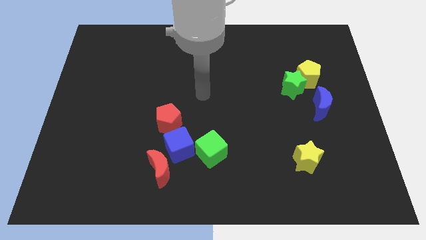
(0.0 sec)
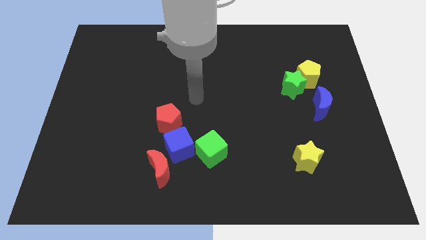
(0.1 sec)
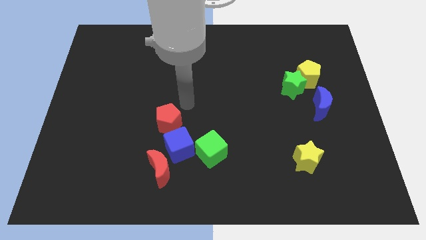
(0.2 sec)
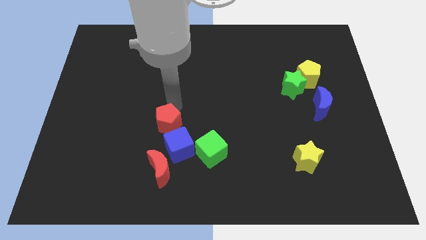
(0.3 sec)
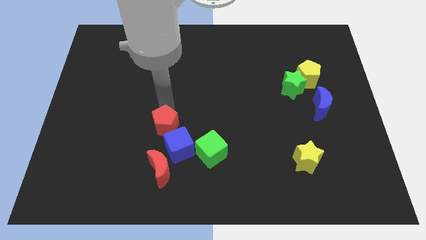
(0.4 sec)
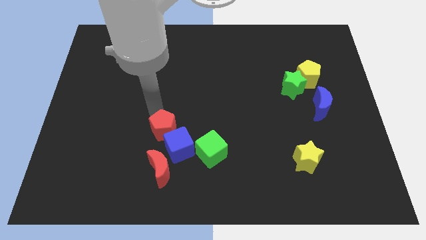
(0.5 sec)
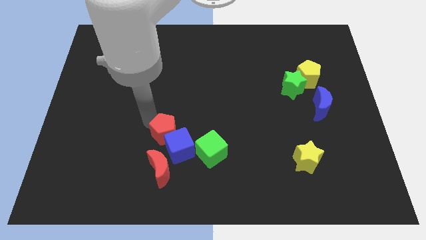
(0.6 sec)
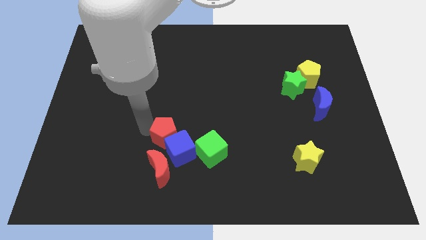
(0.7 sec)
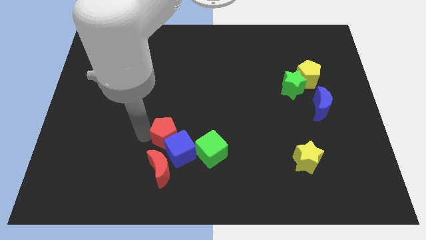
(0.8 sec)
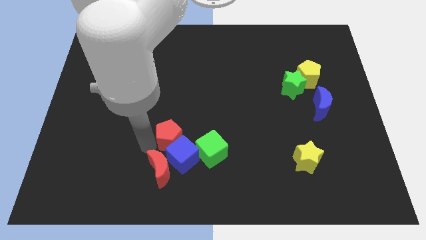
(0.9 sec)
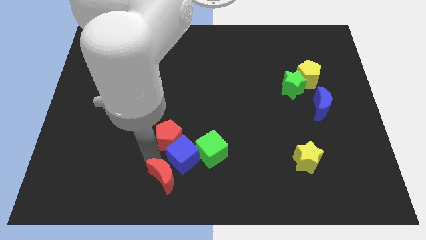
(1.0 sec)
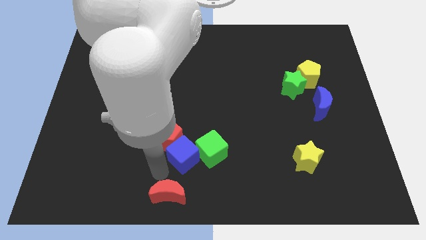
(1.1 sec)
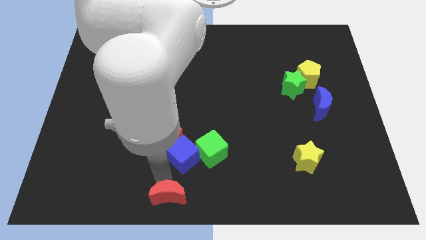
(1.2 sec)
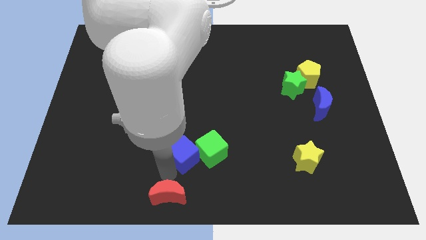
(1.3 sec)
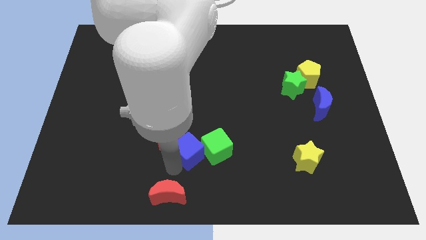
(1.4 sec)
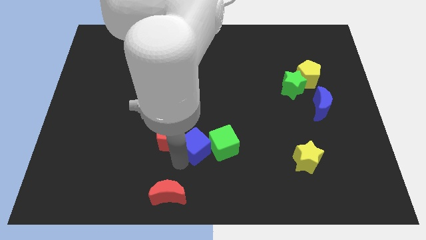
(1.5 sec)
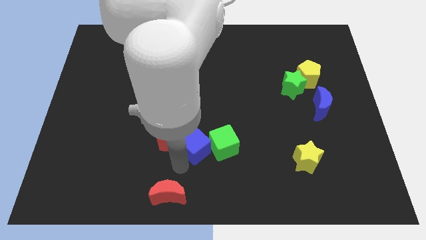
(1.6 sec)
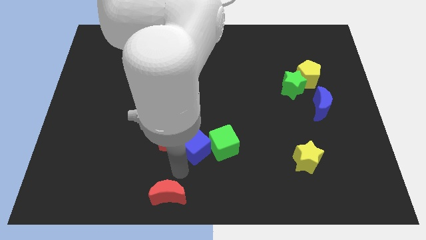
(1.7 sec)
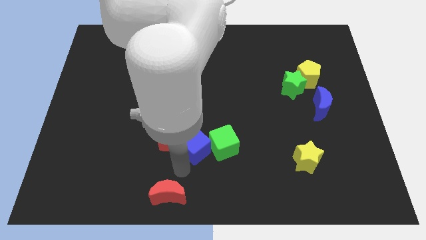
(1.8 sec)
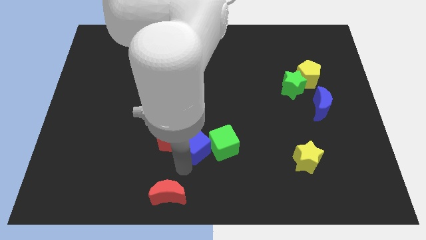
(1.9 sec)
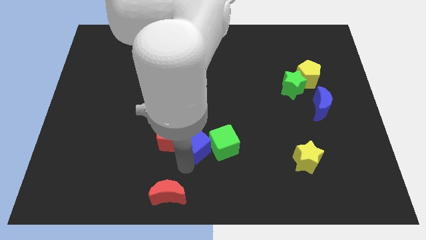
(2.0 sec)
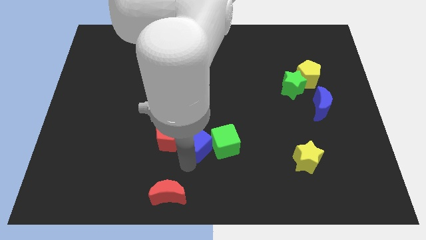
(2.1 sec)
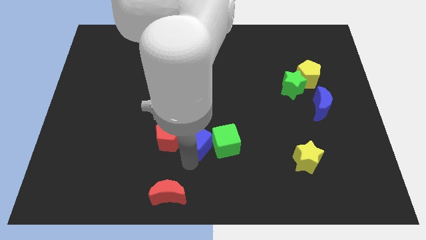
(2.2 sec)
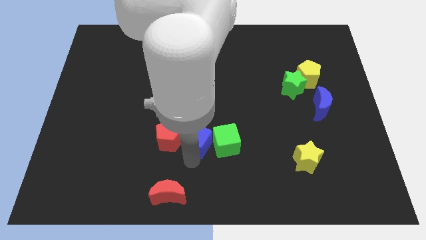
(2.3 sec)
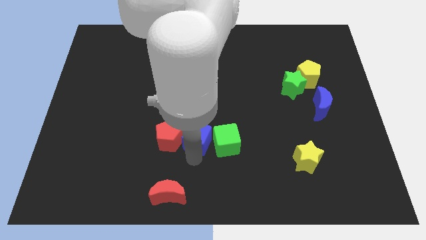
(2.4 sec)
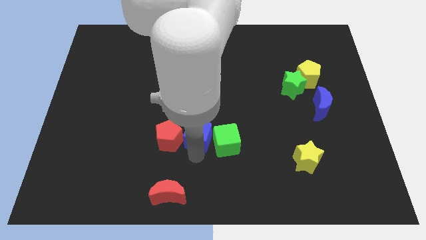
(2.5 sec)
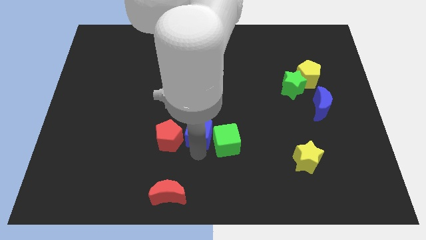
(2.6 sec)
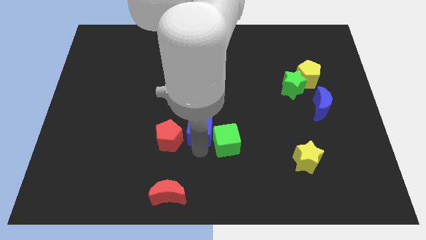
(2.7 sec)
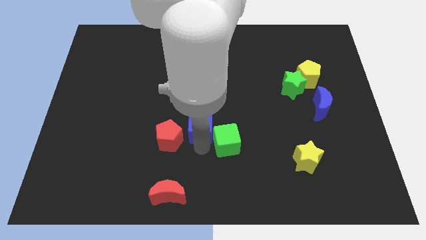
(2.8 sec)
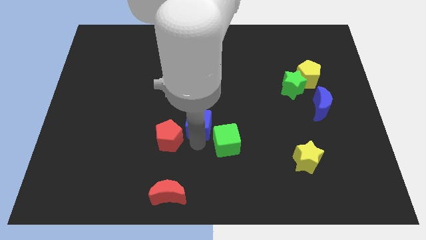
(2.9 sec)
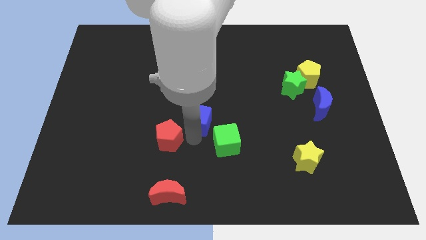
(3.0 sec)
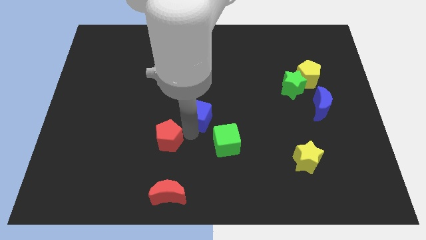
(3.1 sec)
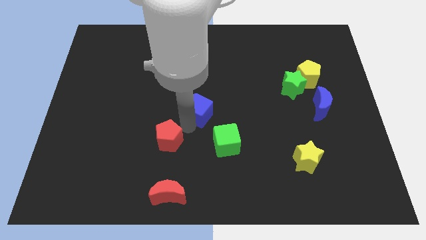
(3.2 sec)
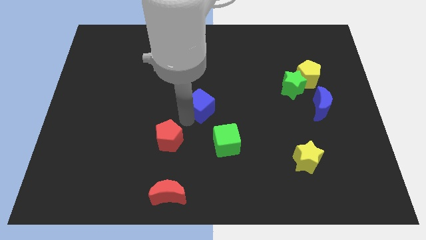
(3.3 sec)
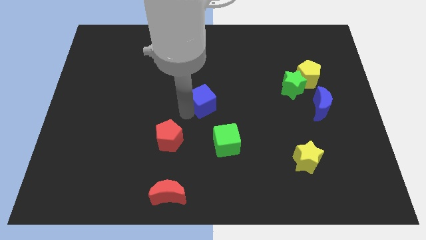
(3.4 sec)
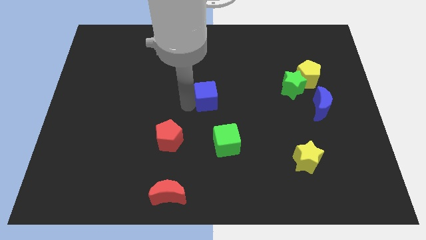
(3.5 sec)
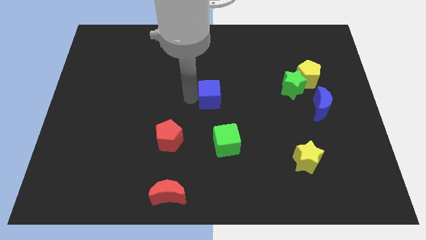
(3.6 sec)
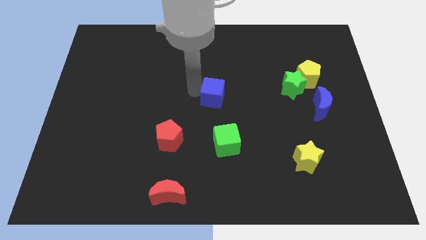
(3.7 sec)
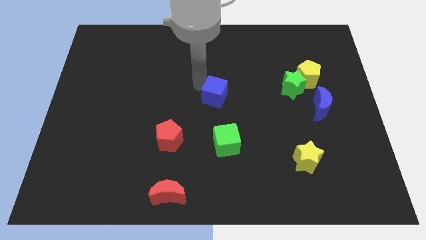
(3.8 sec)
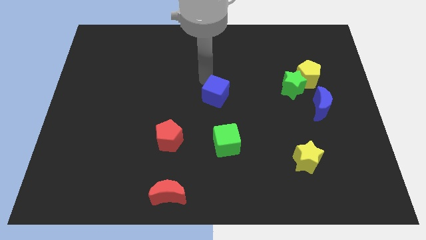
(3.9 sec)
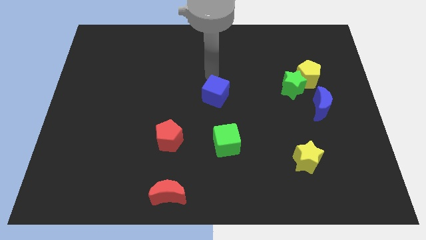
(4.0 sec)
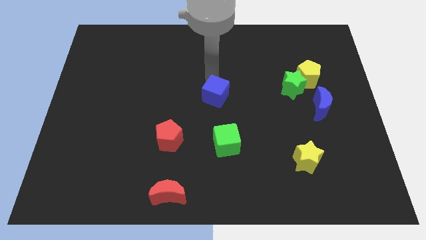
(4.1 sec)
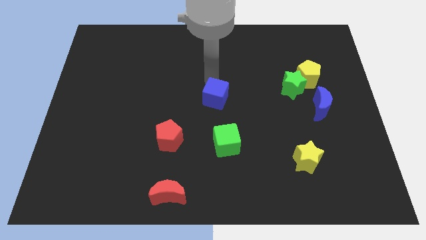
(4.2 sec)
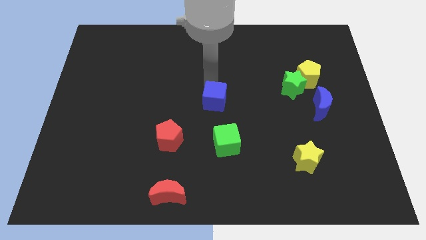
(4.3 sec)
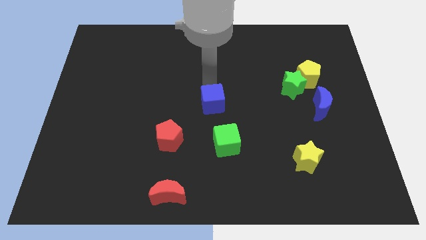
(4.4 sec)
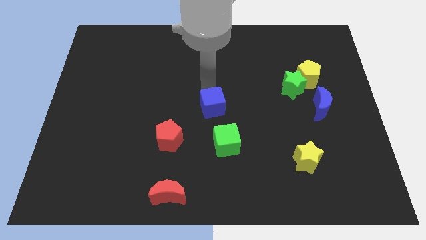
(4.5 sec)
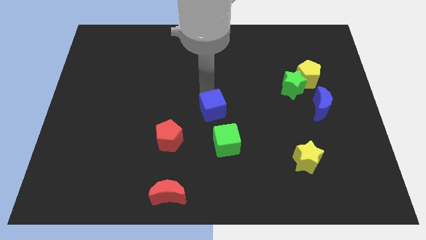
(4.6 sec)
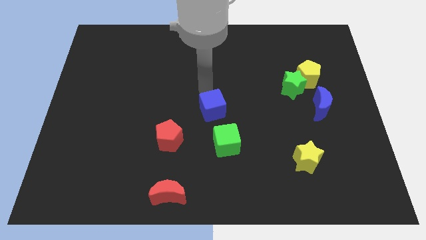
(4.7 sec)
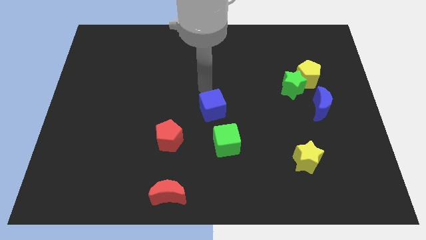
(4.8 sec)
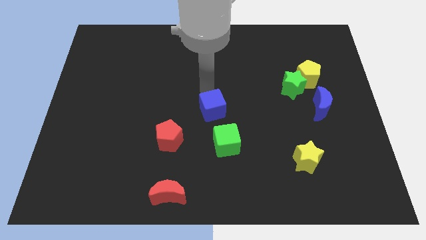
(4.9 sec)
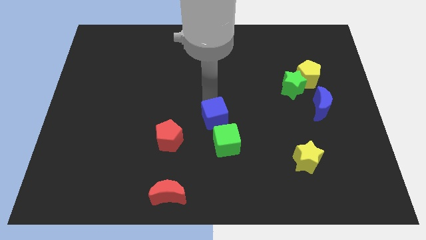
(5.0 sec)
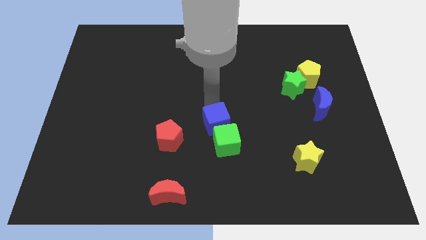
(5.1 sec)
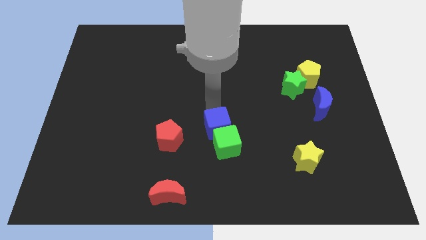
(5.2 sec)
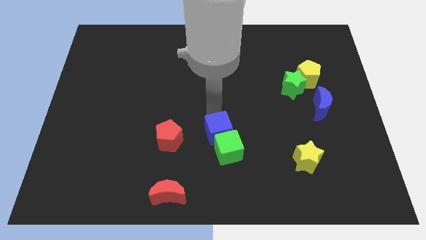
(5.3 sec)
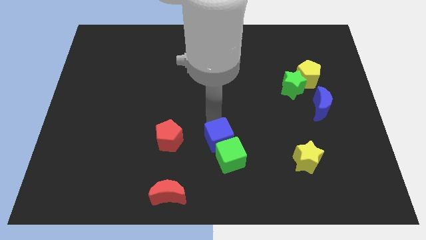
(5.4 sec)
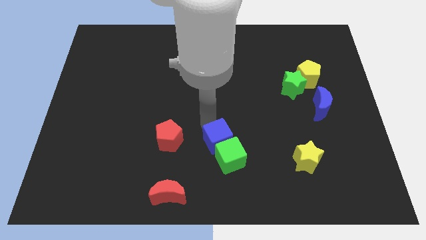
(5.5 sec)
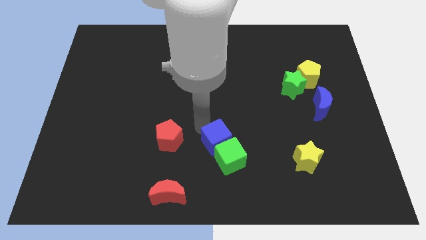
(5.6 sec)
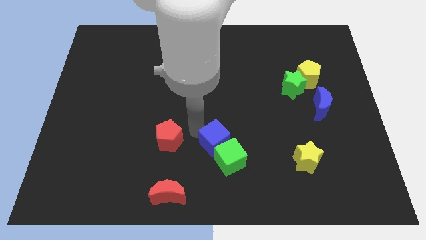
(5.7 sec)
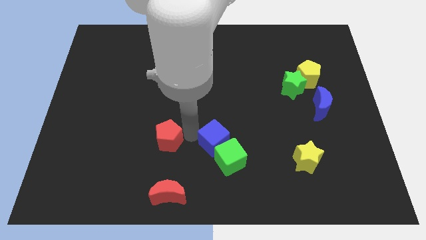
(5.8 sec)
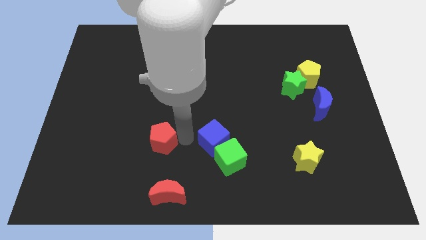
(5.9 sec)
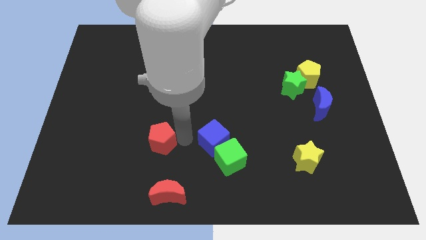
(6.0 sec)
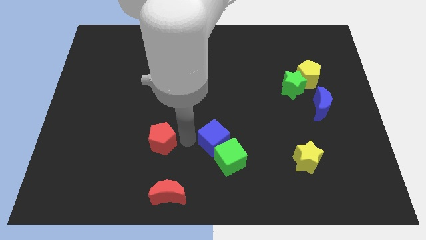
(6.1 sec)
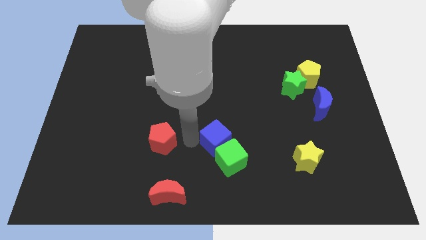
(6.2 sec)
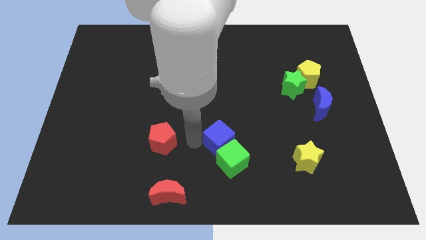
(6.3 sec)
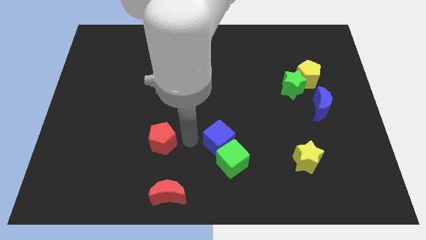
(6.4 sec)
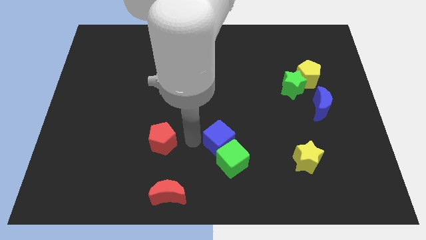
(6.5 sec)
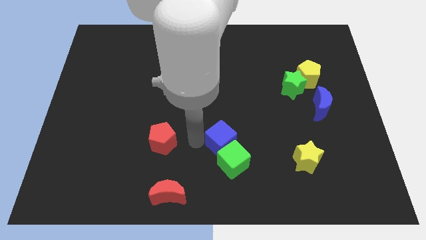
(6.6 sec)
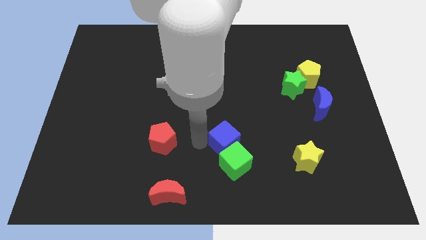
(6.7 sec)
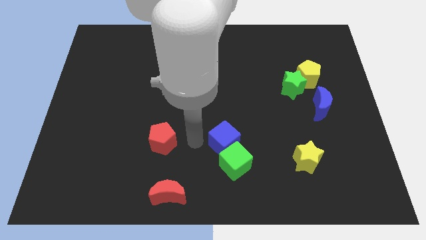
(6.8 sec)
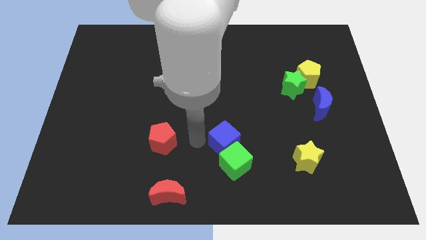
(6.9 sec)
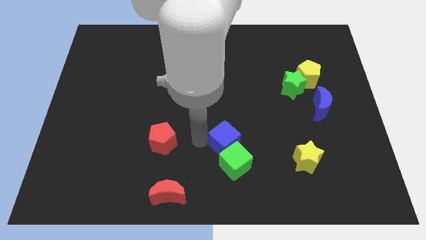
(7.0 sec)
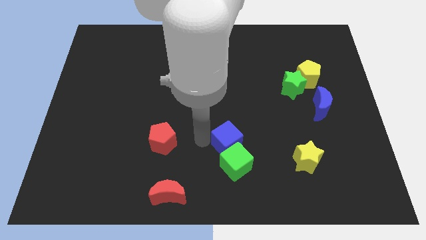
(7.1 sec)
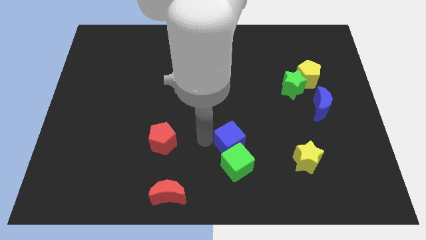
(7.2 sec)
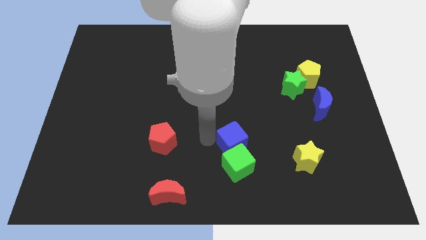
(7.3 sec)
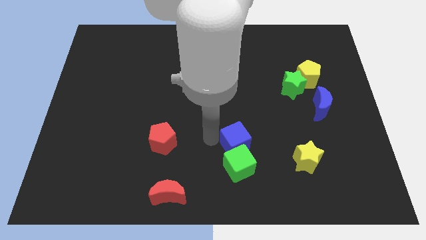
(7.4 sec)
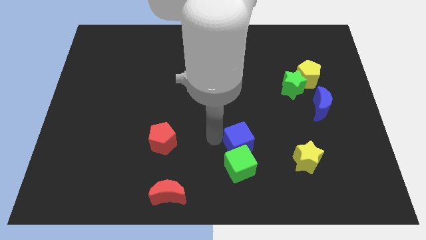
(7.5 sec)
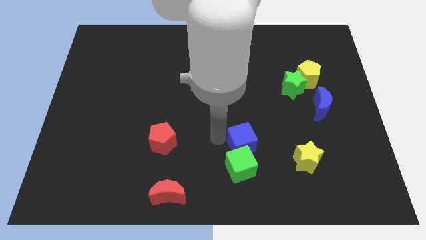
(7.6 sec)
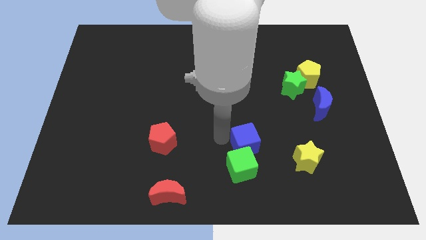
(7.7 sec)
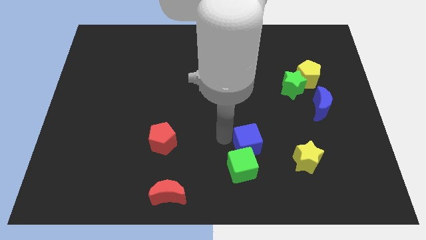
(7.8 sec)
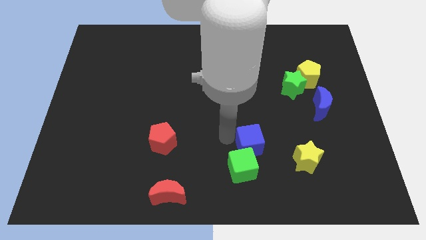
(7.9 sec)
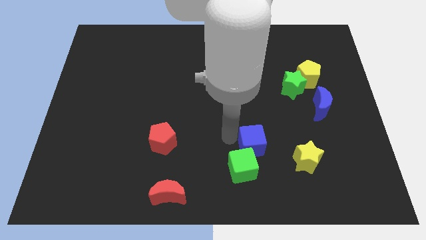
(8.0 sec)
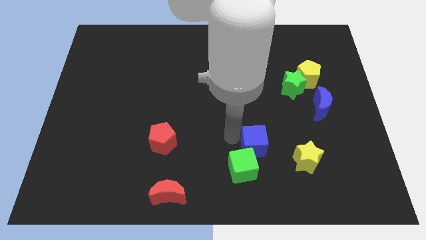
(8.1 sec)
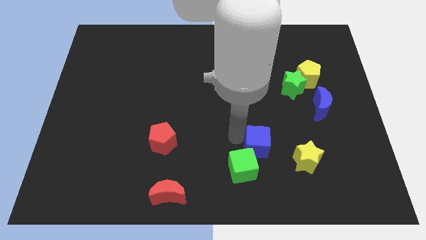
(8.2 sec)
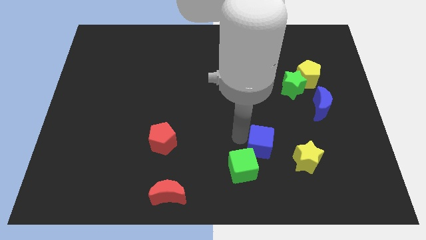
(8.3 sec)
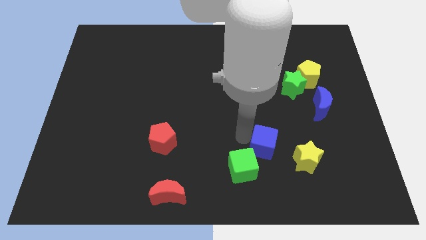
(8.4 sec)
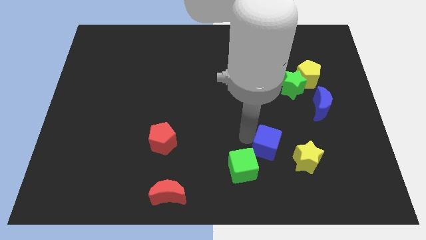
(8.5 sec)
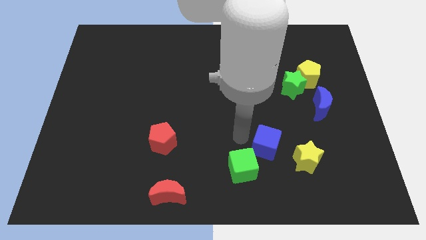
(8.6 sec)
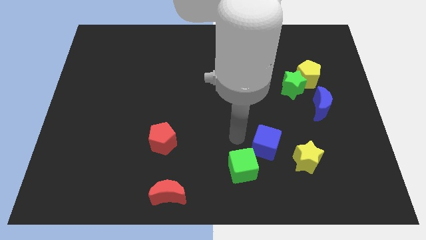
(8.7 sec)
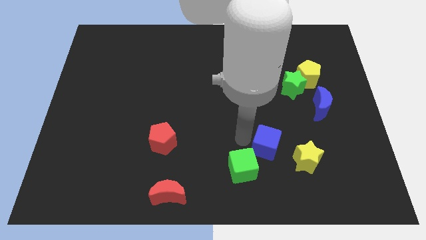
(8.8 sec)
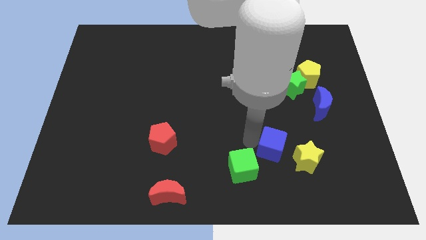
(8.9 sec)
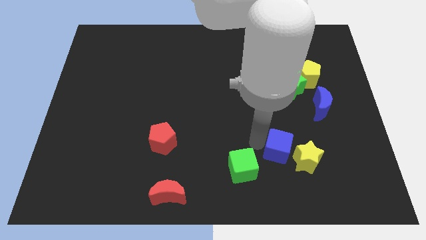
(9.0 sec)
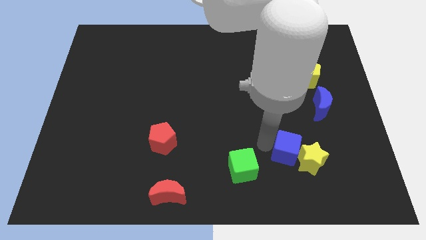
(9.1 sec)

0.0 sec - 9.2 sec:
put the blue cube towards the yellow star
